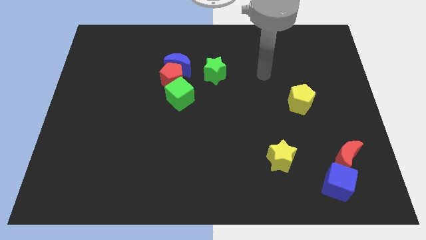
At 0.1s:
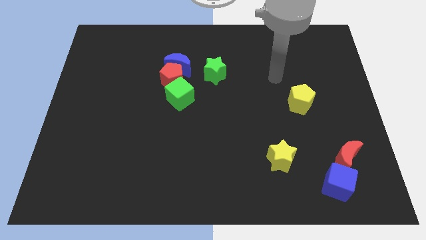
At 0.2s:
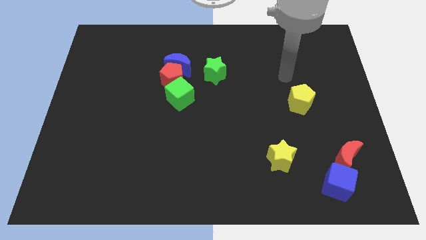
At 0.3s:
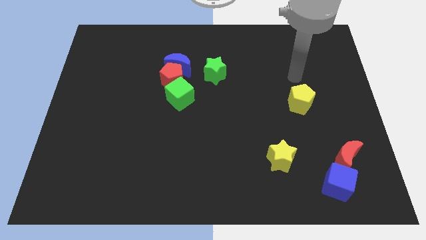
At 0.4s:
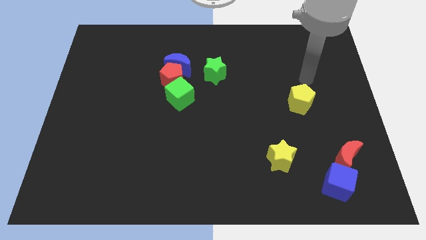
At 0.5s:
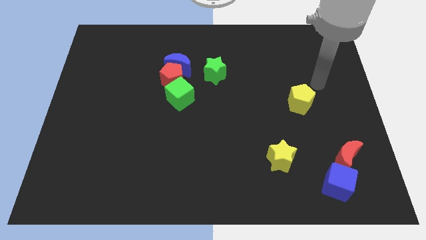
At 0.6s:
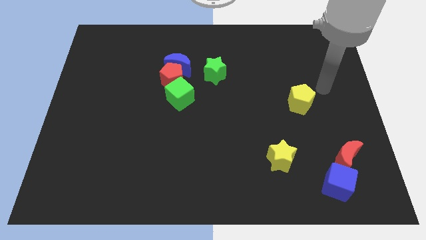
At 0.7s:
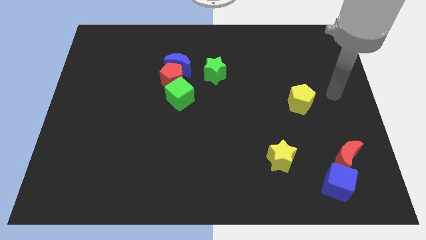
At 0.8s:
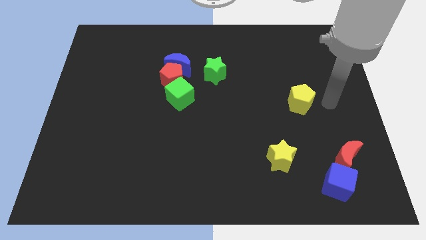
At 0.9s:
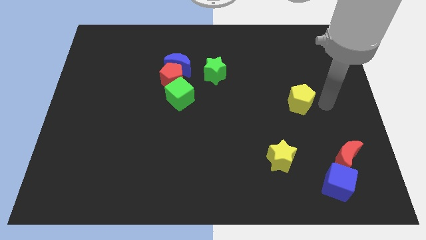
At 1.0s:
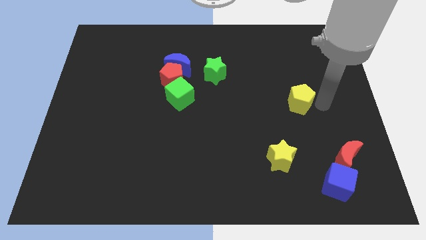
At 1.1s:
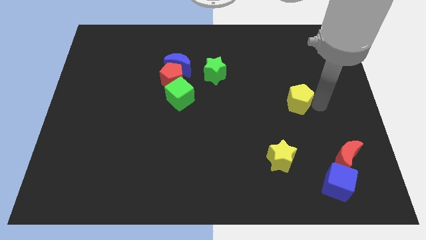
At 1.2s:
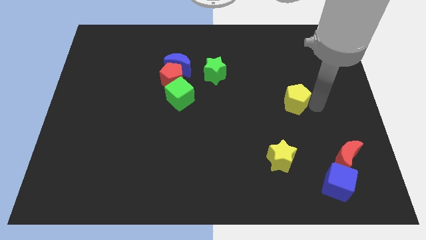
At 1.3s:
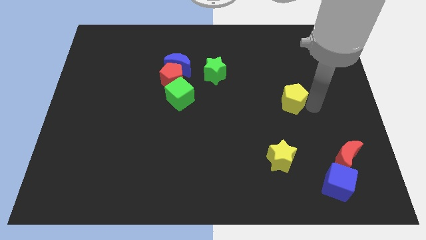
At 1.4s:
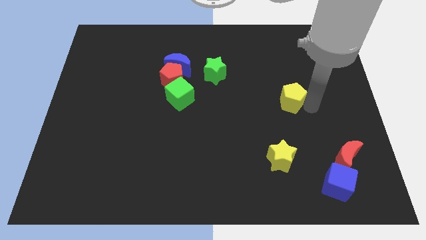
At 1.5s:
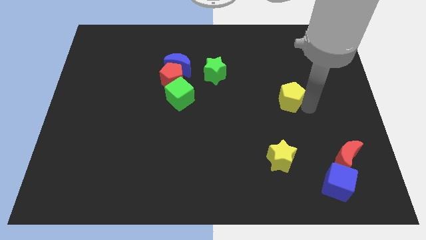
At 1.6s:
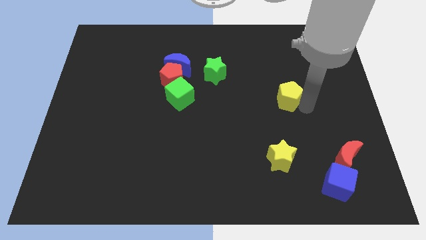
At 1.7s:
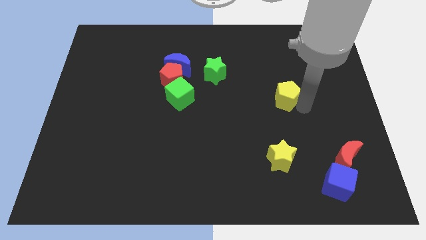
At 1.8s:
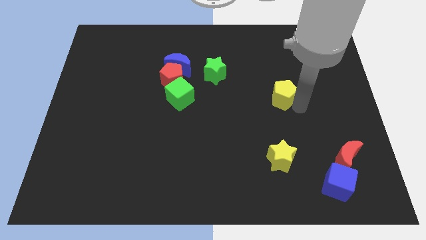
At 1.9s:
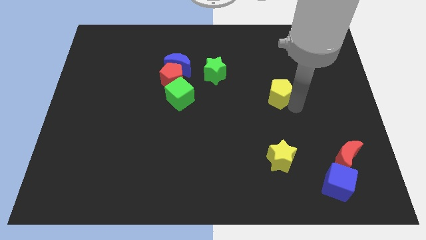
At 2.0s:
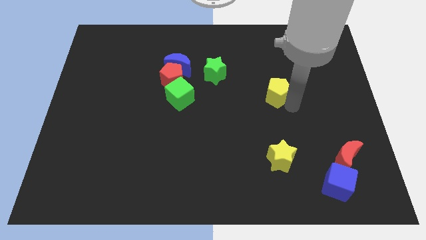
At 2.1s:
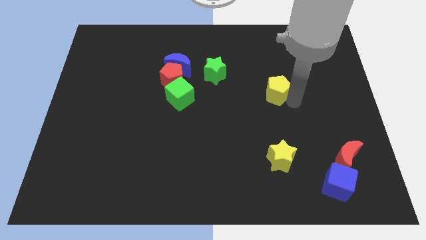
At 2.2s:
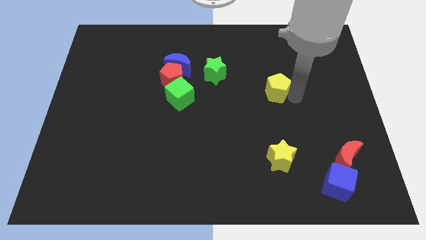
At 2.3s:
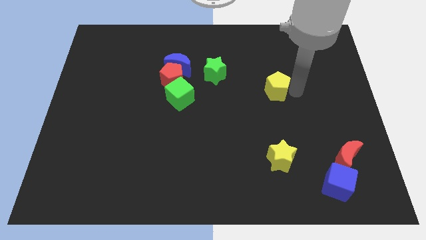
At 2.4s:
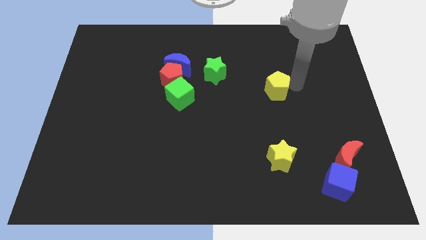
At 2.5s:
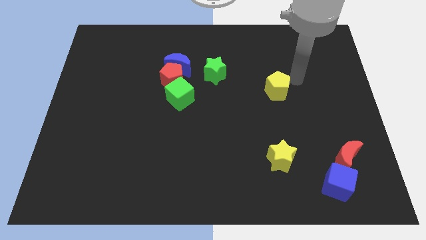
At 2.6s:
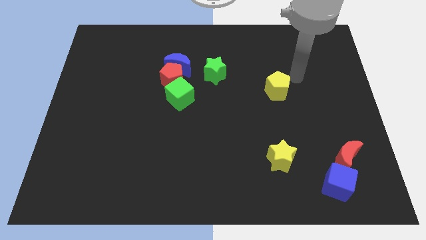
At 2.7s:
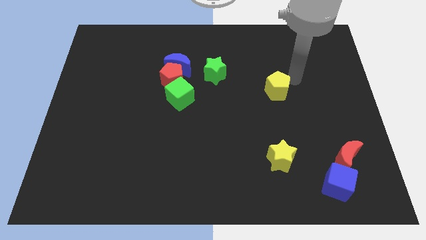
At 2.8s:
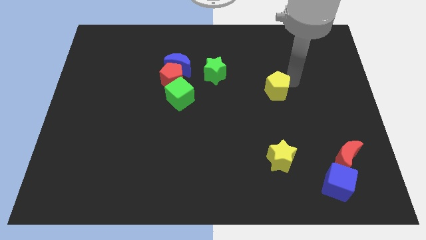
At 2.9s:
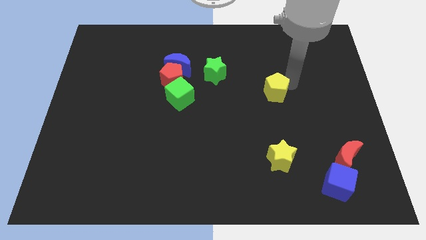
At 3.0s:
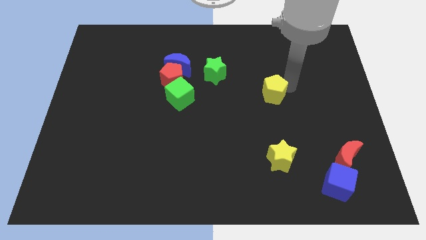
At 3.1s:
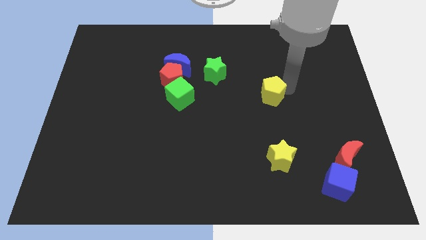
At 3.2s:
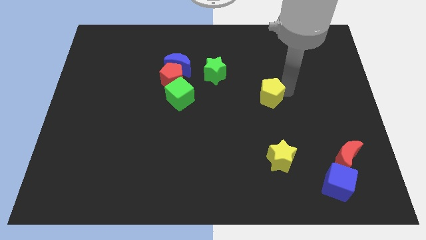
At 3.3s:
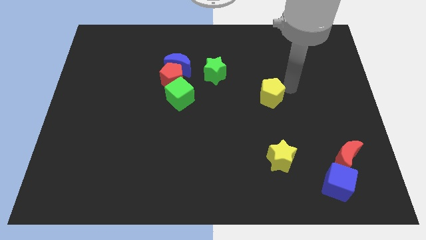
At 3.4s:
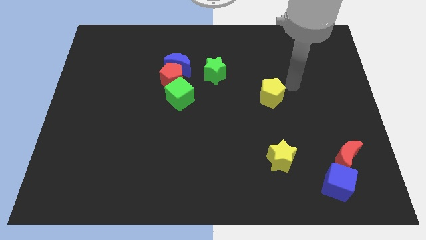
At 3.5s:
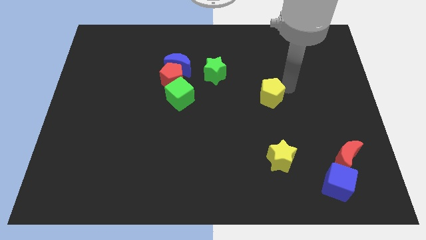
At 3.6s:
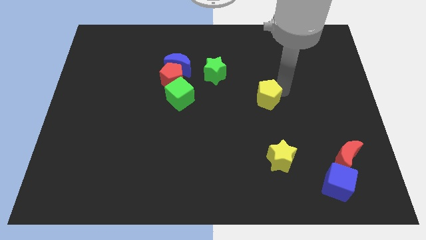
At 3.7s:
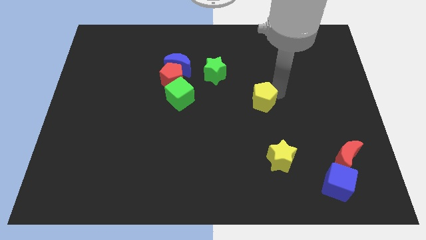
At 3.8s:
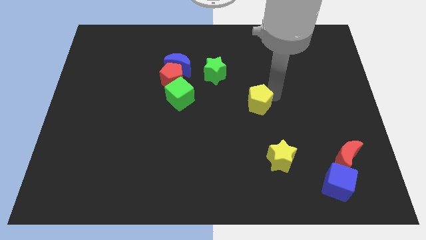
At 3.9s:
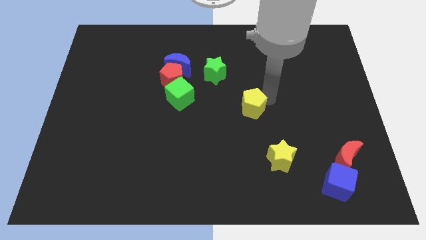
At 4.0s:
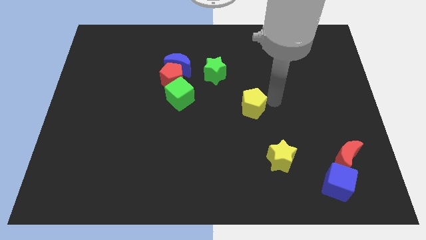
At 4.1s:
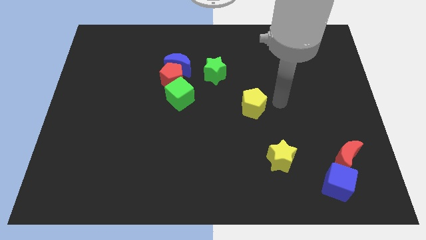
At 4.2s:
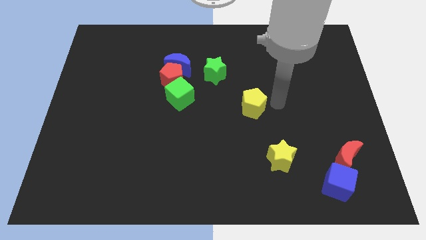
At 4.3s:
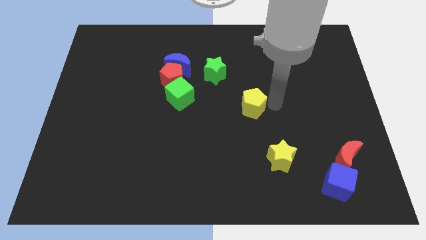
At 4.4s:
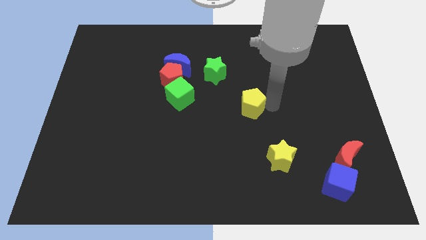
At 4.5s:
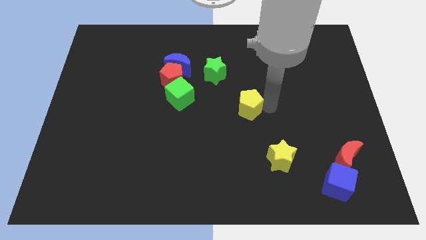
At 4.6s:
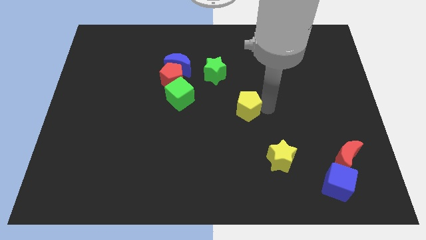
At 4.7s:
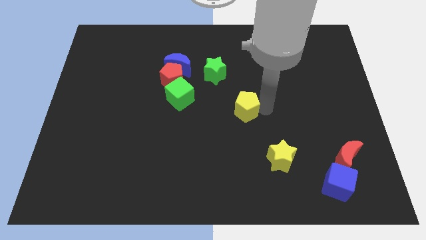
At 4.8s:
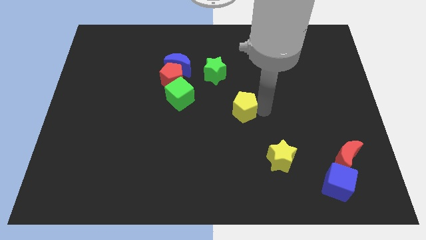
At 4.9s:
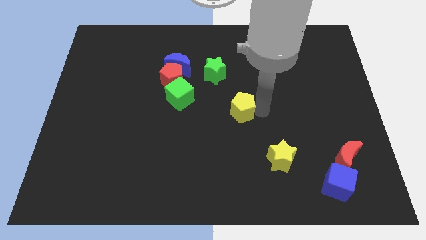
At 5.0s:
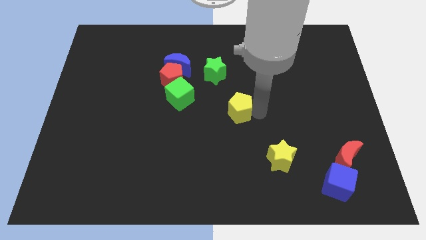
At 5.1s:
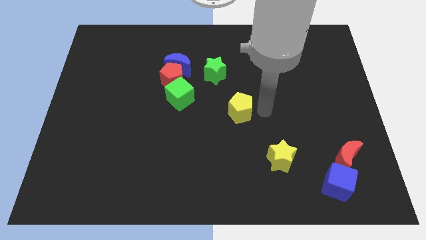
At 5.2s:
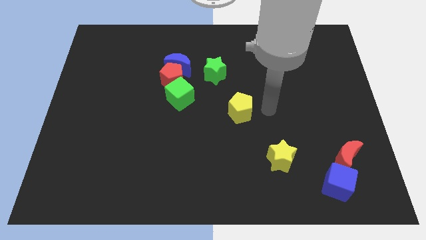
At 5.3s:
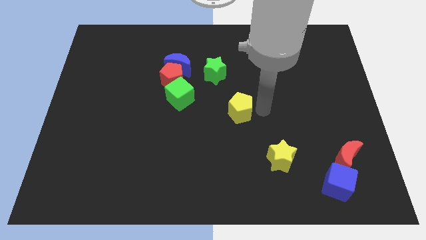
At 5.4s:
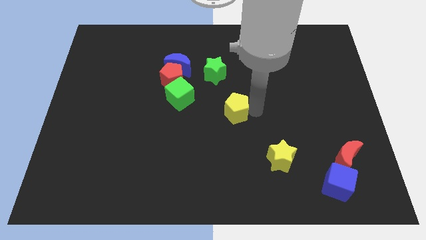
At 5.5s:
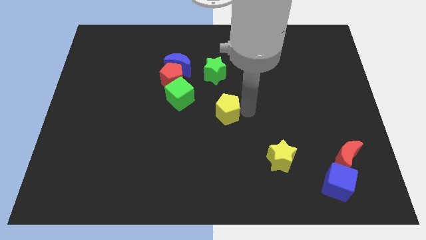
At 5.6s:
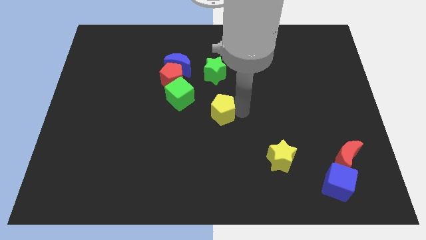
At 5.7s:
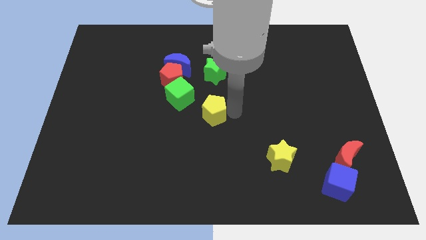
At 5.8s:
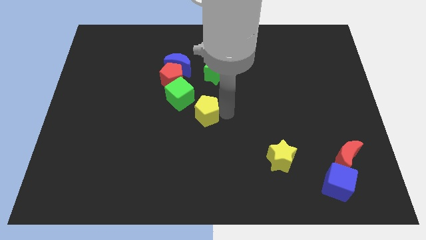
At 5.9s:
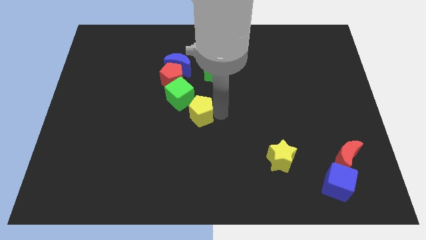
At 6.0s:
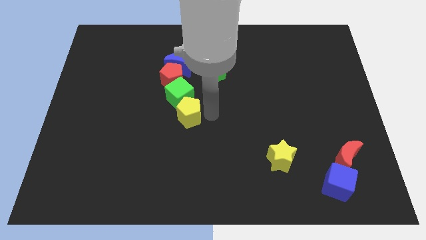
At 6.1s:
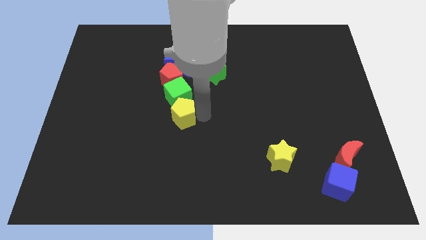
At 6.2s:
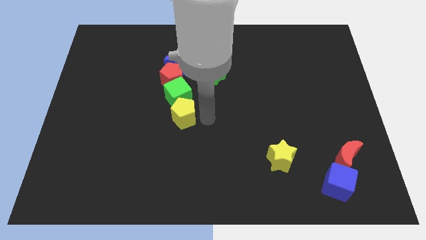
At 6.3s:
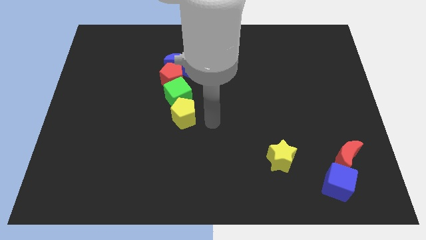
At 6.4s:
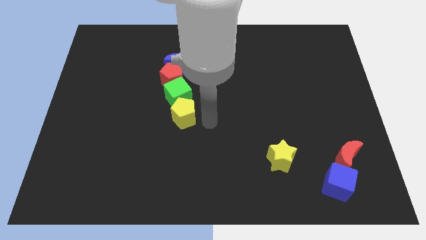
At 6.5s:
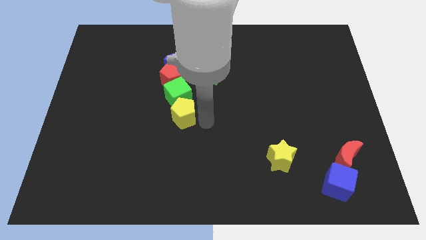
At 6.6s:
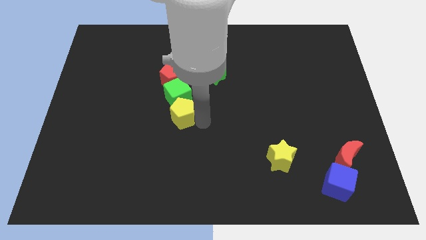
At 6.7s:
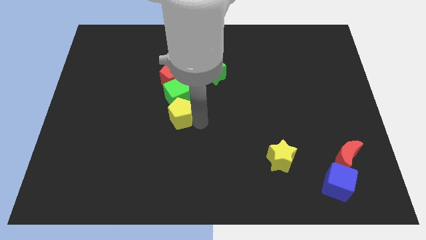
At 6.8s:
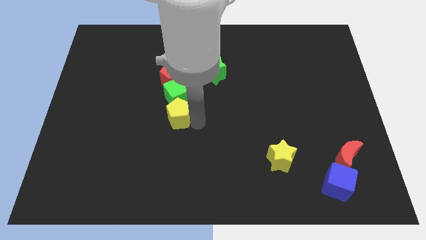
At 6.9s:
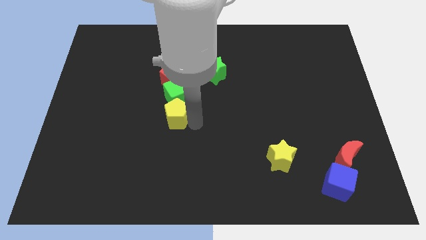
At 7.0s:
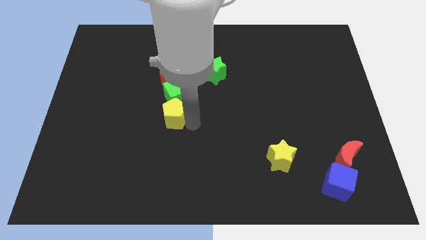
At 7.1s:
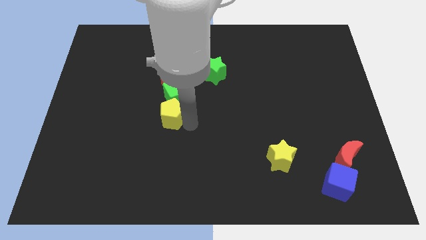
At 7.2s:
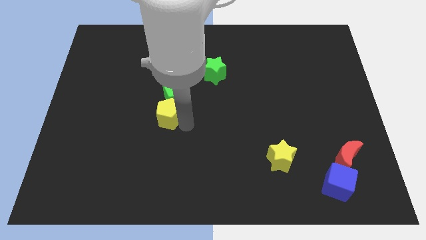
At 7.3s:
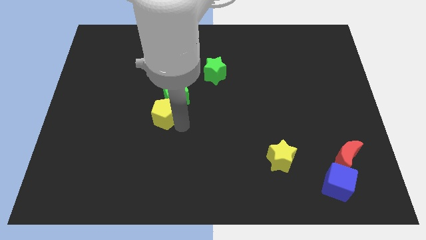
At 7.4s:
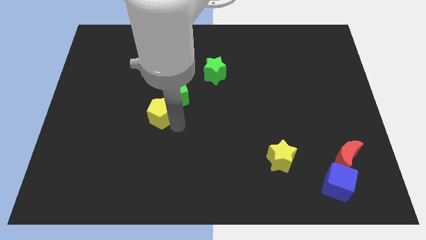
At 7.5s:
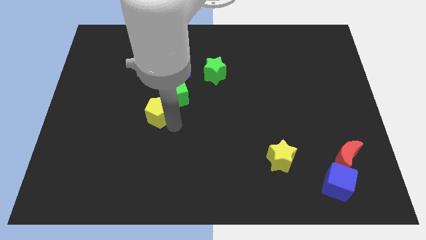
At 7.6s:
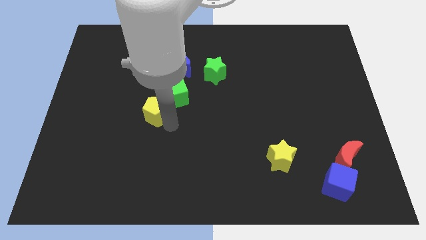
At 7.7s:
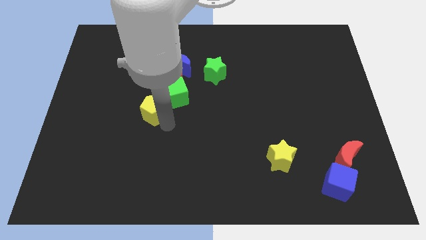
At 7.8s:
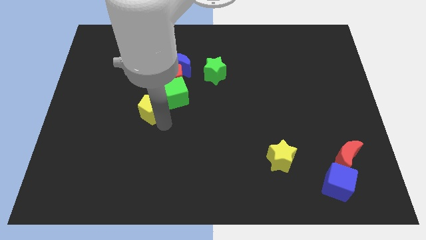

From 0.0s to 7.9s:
put the yellow pentagon to the bottom left of the red pentagon

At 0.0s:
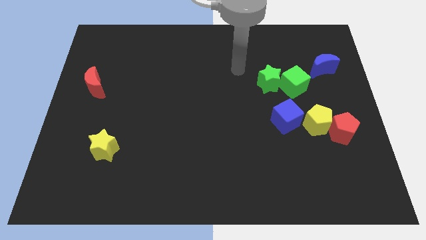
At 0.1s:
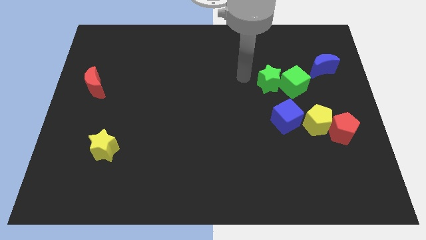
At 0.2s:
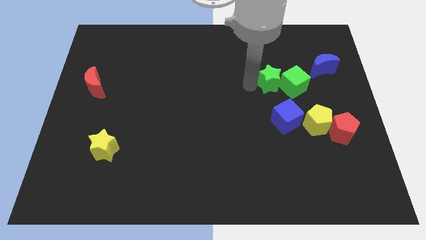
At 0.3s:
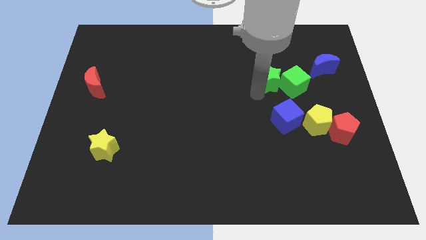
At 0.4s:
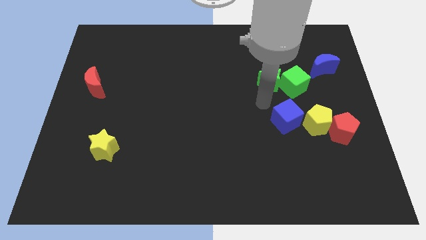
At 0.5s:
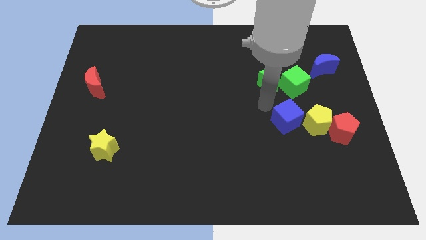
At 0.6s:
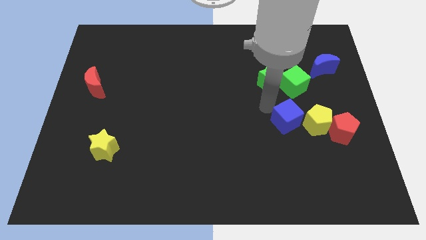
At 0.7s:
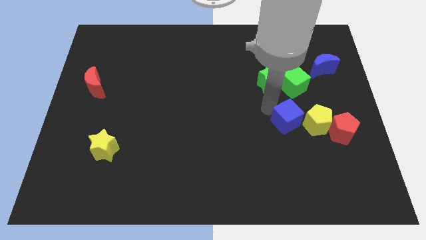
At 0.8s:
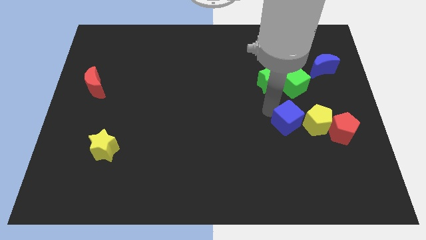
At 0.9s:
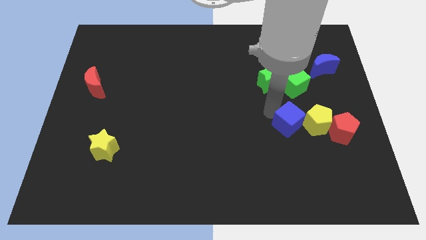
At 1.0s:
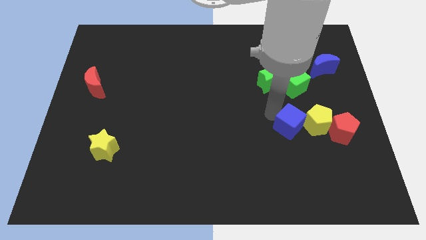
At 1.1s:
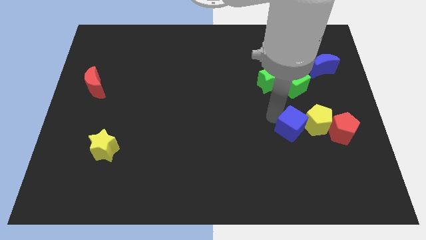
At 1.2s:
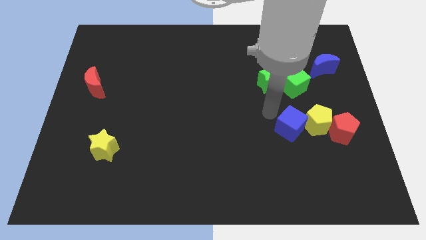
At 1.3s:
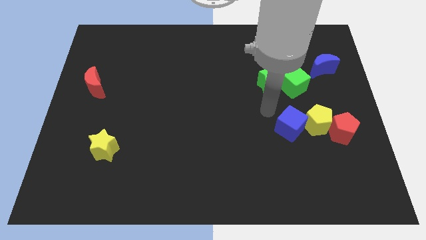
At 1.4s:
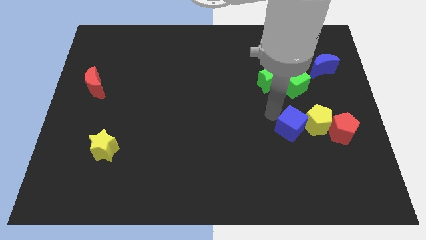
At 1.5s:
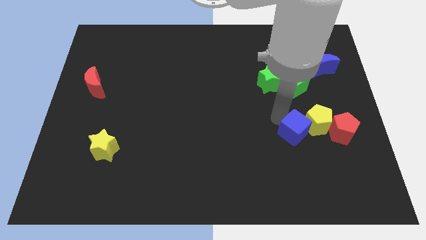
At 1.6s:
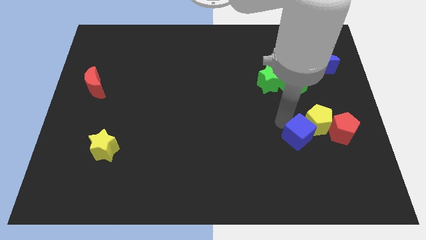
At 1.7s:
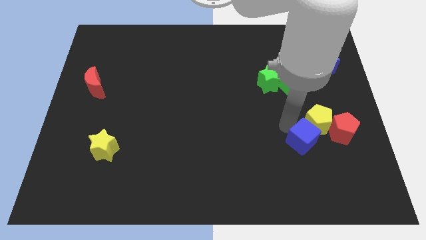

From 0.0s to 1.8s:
move the blue cube to the bottom left of the red pentagon
